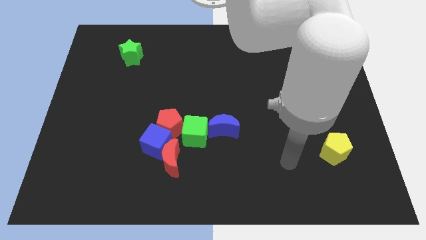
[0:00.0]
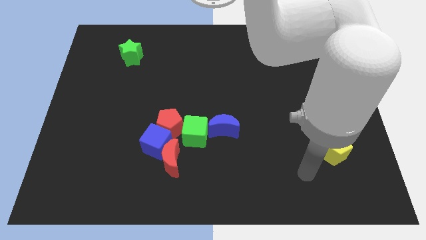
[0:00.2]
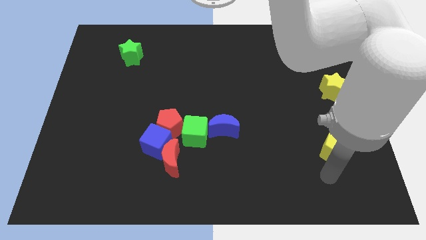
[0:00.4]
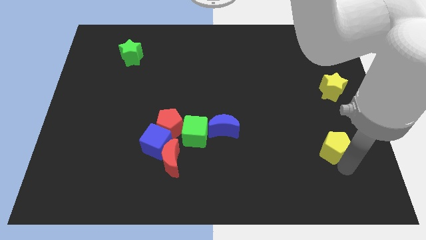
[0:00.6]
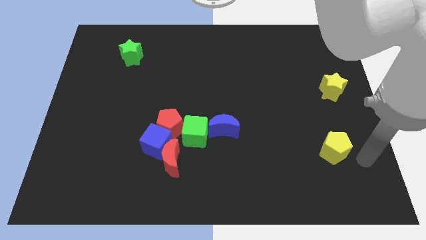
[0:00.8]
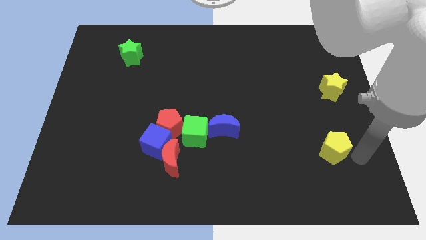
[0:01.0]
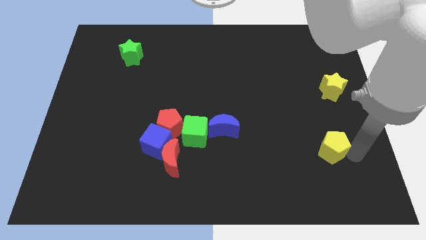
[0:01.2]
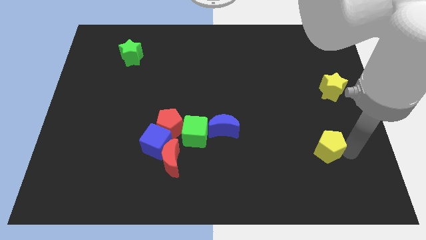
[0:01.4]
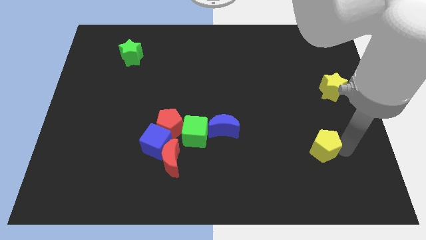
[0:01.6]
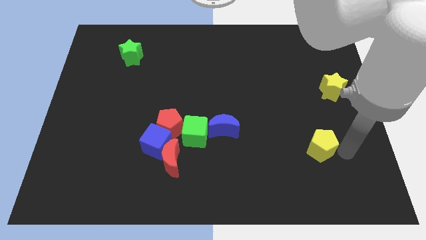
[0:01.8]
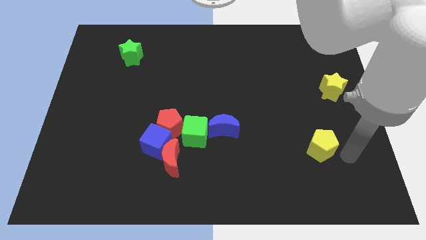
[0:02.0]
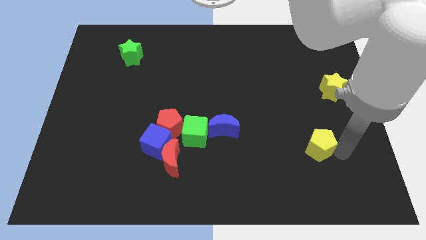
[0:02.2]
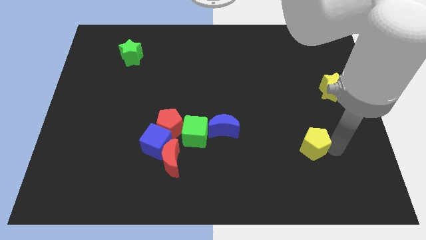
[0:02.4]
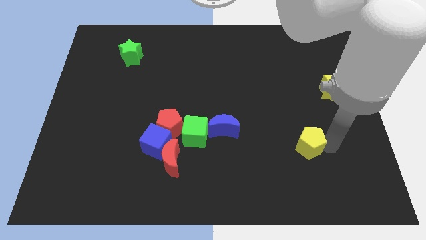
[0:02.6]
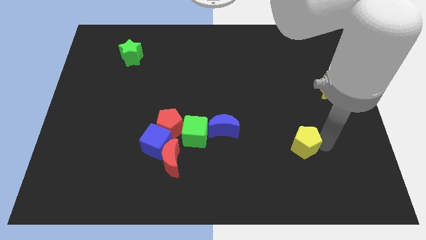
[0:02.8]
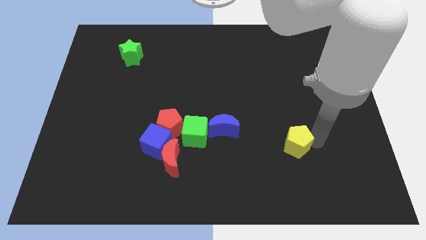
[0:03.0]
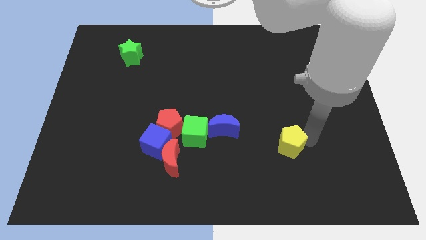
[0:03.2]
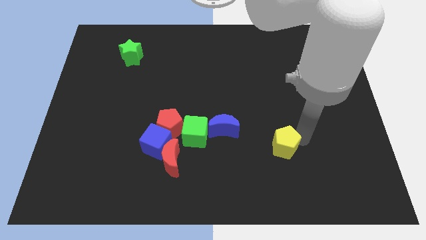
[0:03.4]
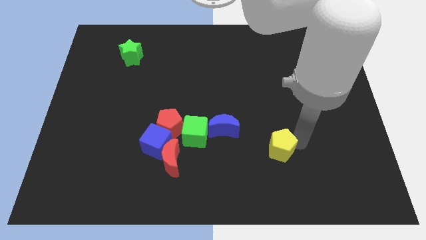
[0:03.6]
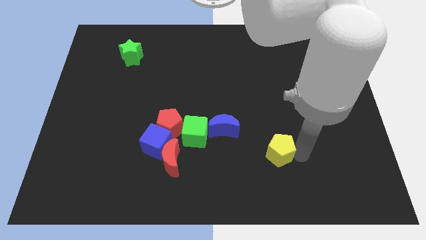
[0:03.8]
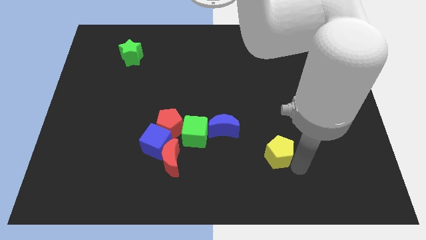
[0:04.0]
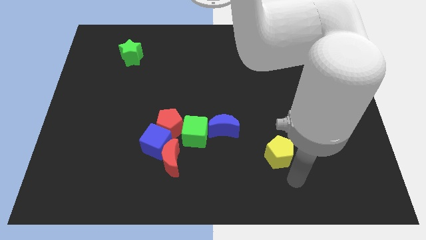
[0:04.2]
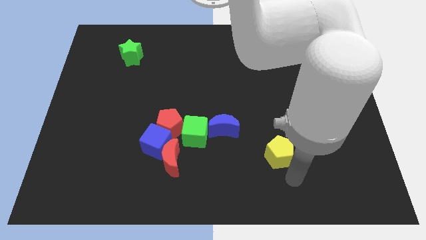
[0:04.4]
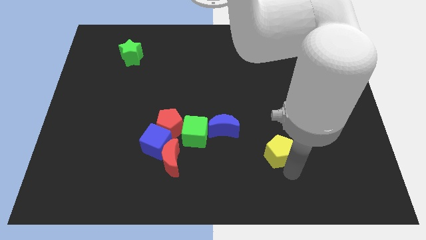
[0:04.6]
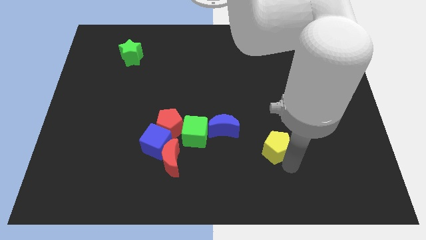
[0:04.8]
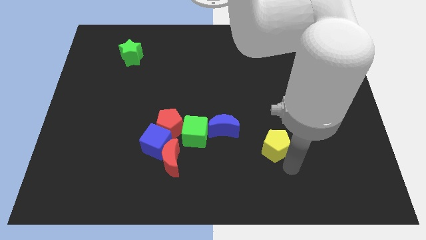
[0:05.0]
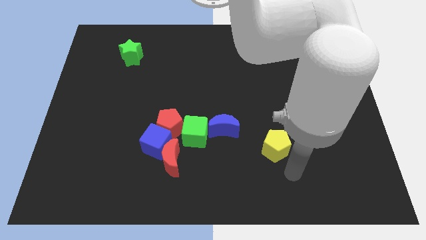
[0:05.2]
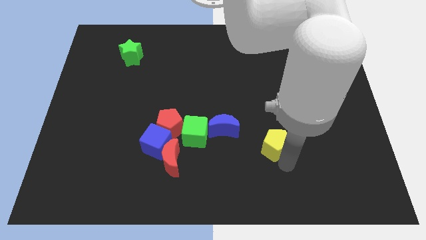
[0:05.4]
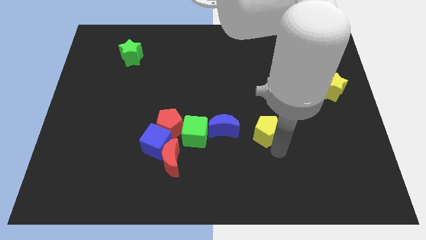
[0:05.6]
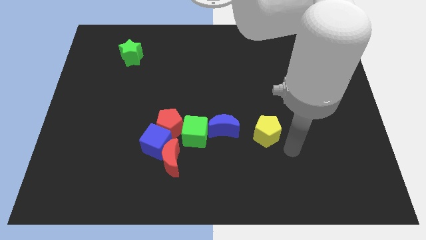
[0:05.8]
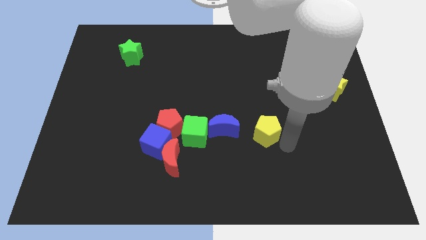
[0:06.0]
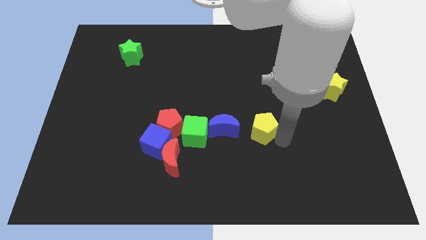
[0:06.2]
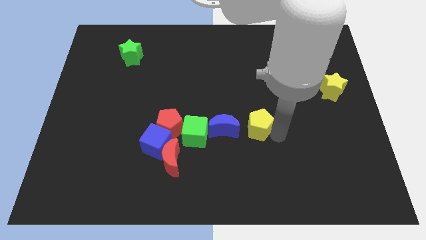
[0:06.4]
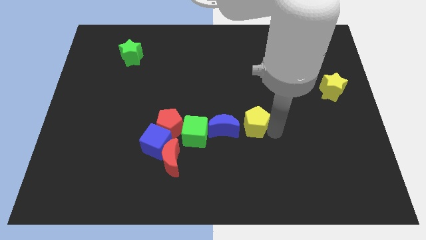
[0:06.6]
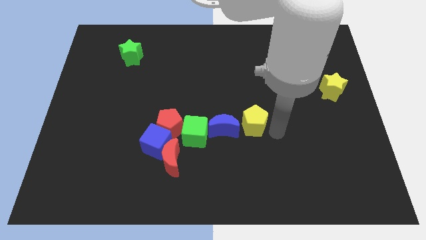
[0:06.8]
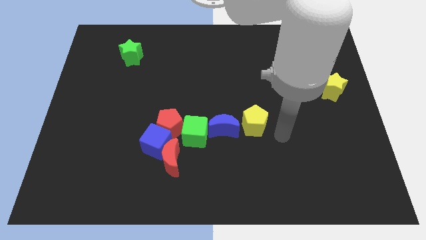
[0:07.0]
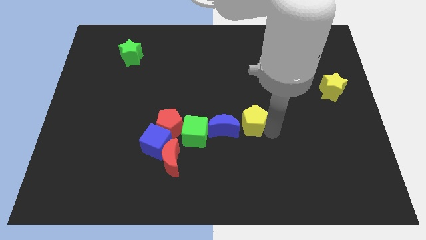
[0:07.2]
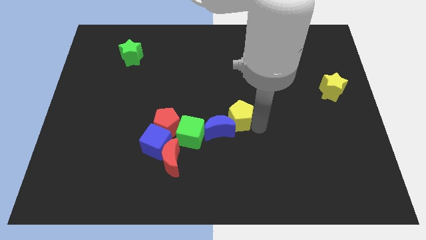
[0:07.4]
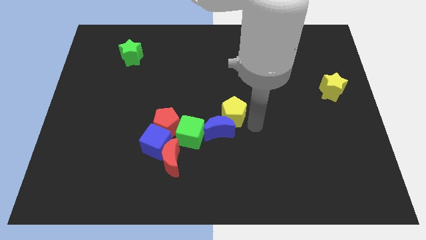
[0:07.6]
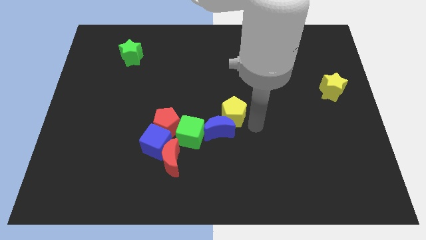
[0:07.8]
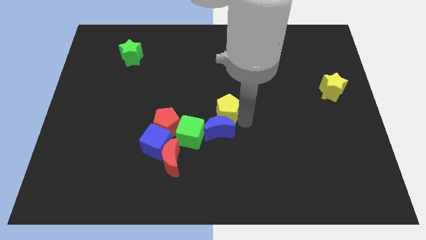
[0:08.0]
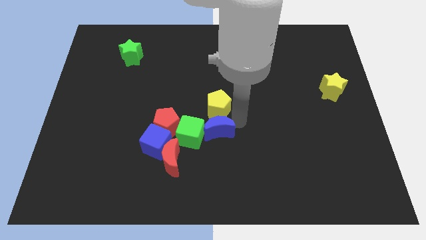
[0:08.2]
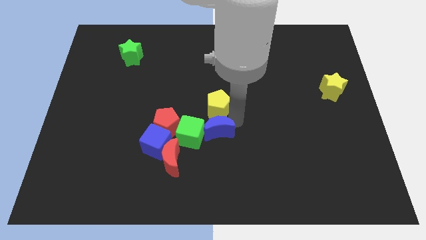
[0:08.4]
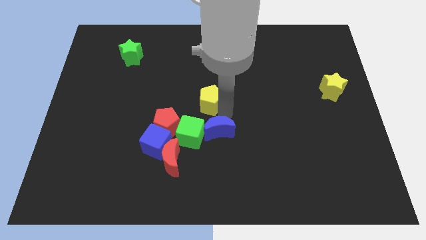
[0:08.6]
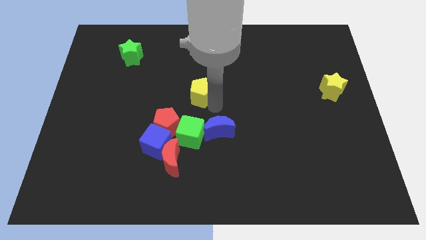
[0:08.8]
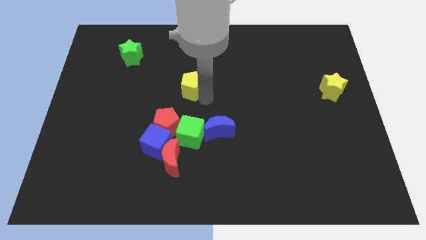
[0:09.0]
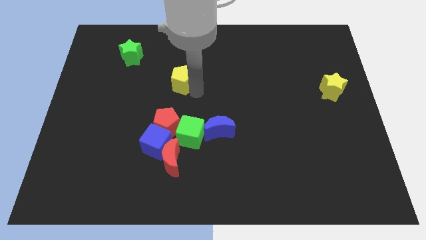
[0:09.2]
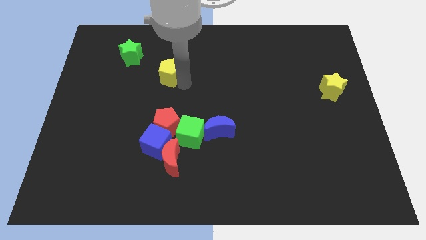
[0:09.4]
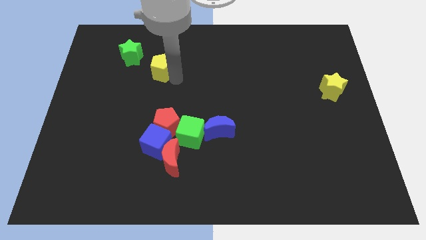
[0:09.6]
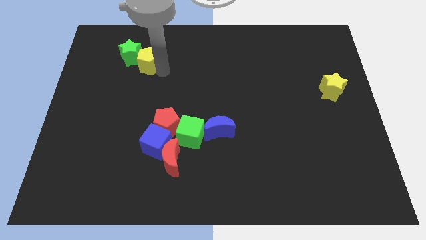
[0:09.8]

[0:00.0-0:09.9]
slide the yellow pentagon towards the green star

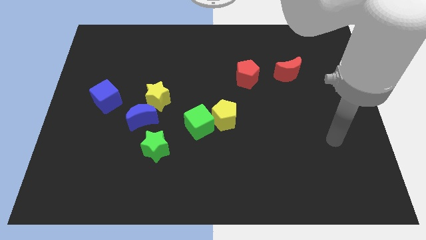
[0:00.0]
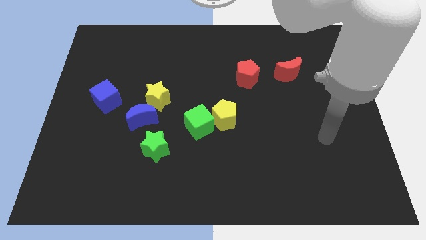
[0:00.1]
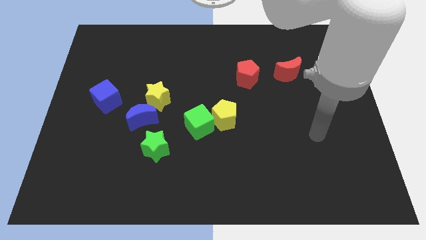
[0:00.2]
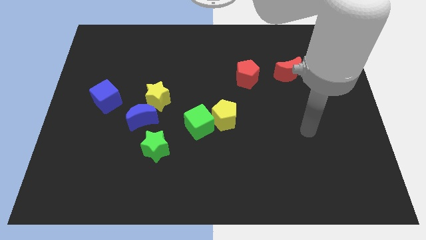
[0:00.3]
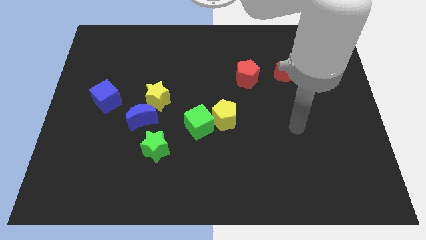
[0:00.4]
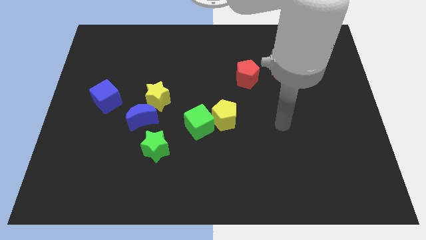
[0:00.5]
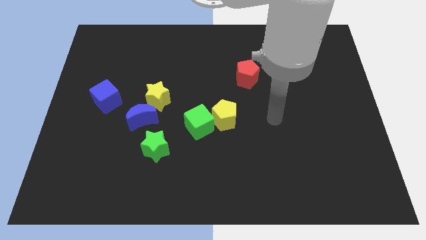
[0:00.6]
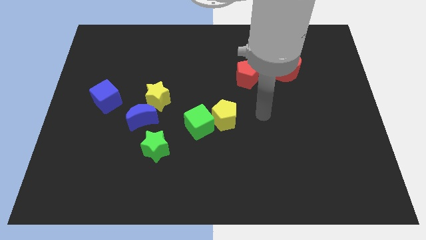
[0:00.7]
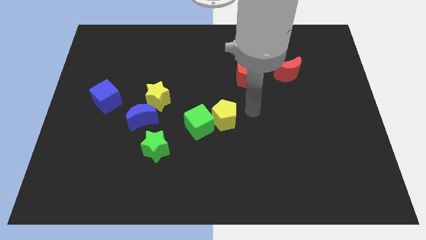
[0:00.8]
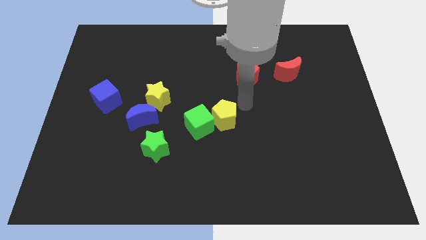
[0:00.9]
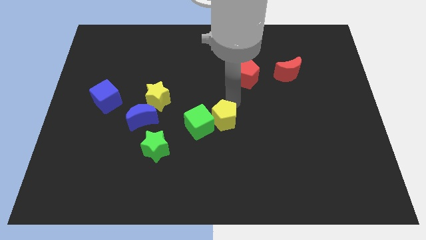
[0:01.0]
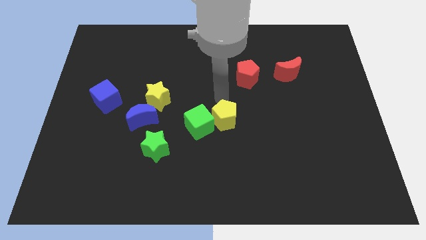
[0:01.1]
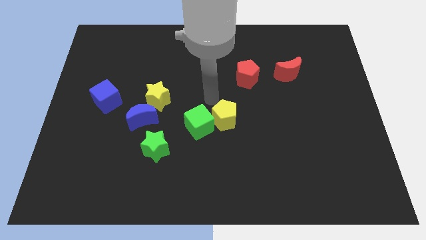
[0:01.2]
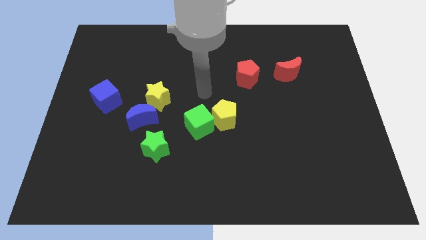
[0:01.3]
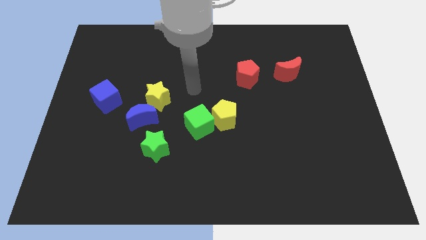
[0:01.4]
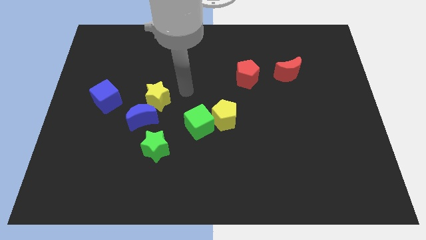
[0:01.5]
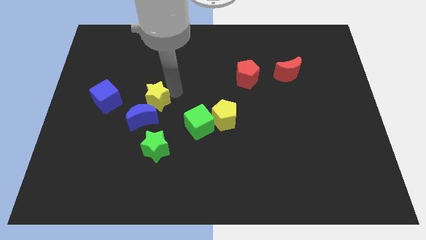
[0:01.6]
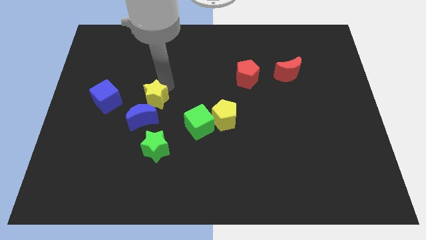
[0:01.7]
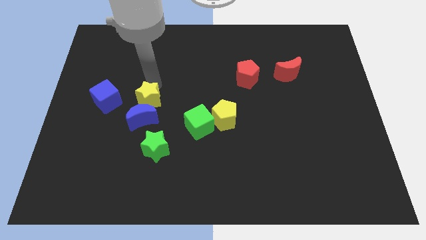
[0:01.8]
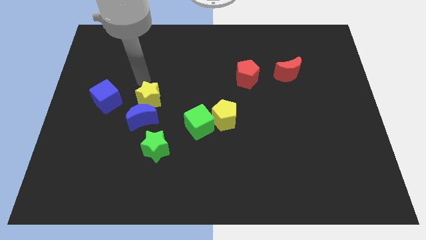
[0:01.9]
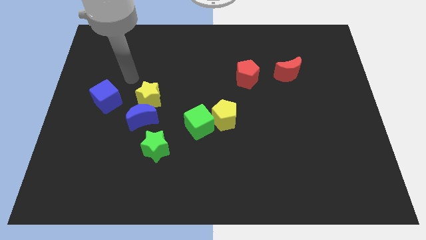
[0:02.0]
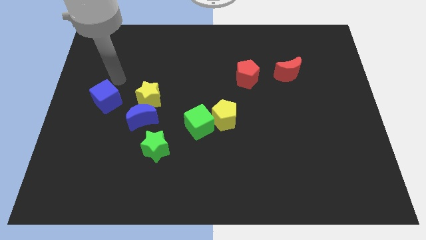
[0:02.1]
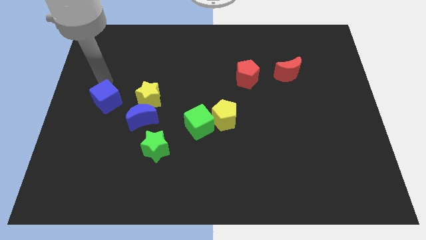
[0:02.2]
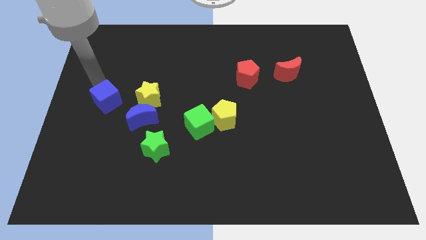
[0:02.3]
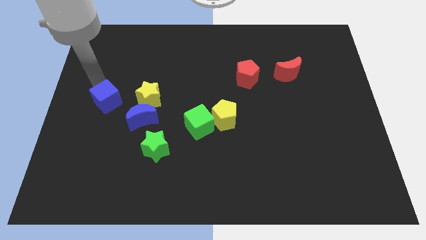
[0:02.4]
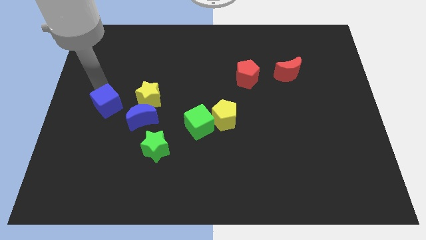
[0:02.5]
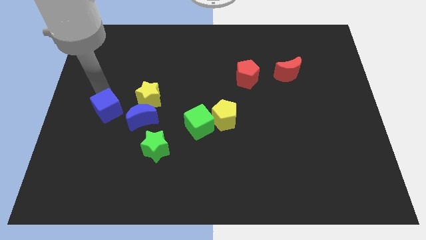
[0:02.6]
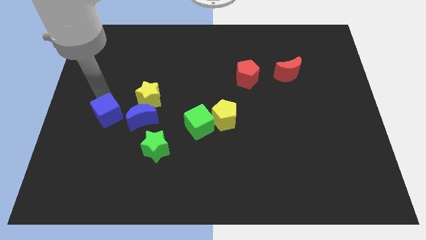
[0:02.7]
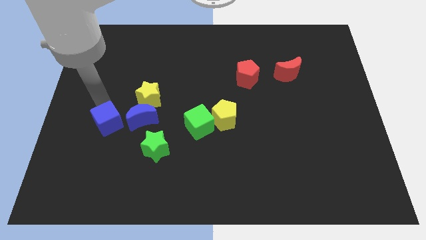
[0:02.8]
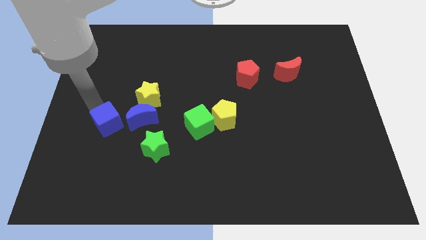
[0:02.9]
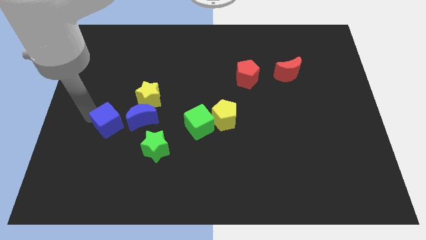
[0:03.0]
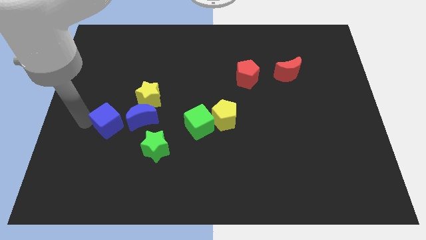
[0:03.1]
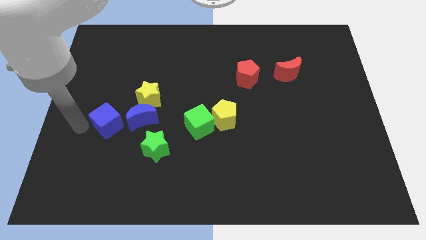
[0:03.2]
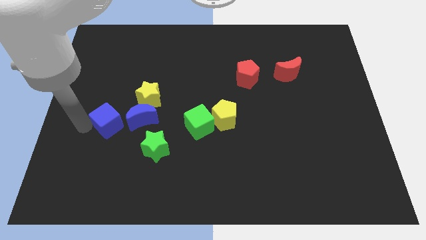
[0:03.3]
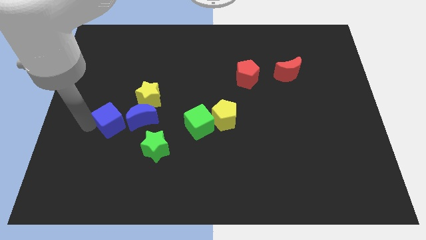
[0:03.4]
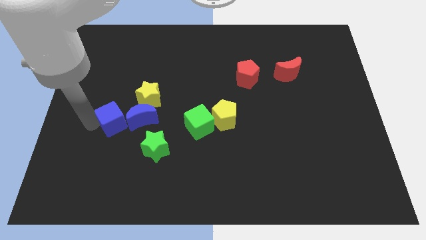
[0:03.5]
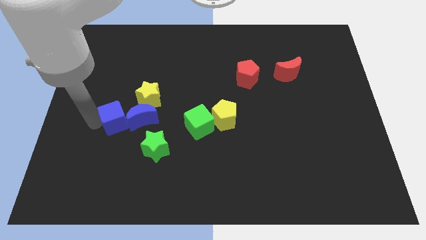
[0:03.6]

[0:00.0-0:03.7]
push the blue cube to the blue moon
